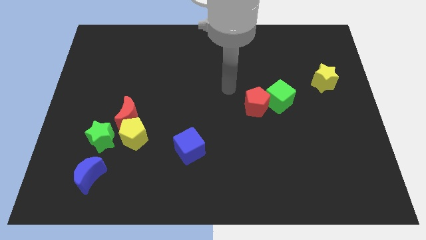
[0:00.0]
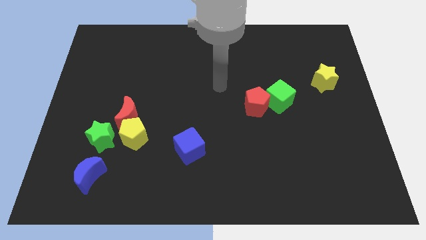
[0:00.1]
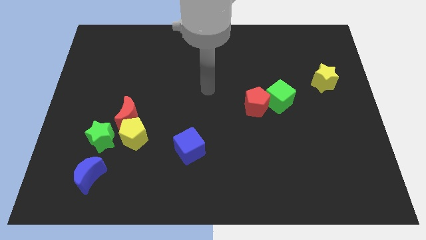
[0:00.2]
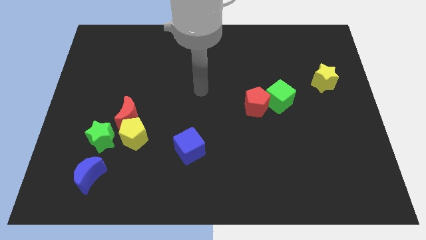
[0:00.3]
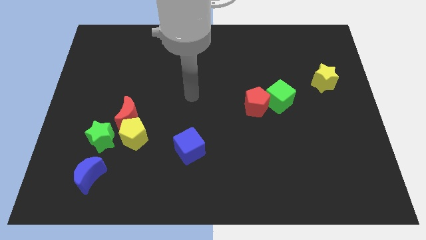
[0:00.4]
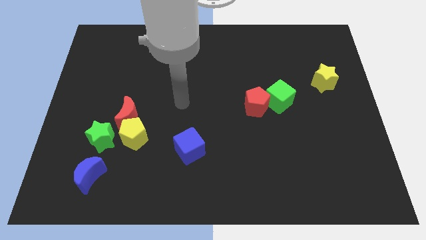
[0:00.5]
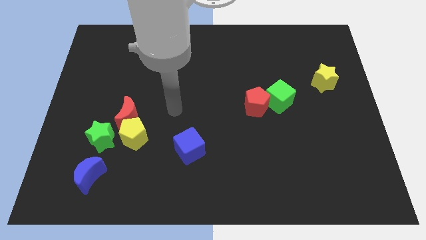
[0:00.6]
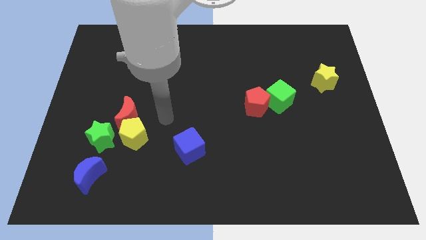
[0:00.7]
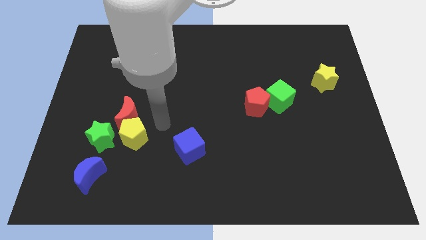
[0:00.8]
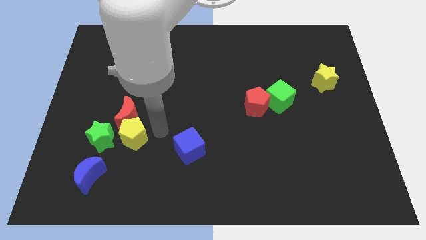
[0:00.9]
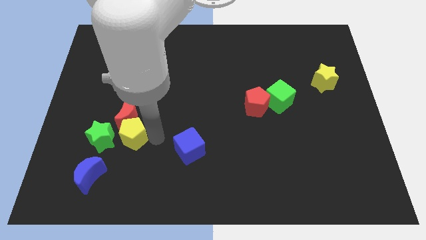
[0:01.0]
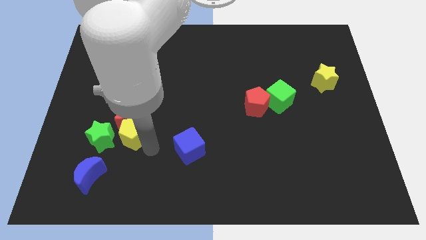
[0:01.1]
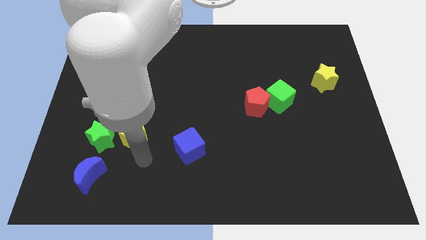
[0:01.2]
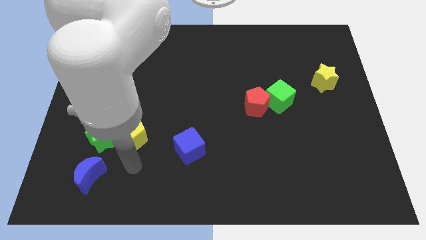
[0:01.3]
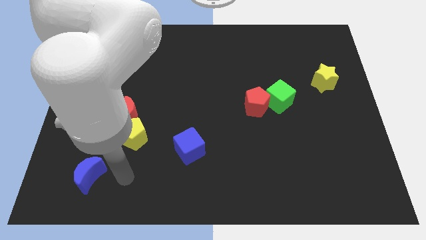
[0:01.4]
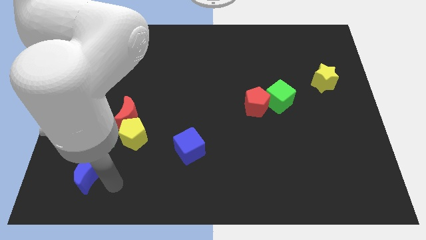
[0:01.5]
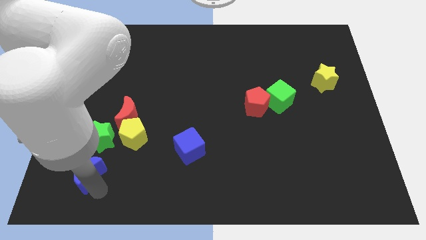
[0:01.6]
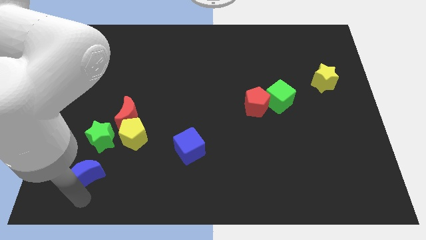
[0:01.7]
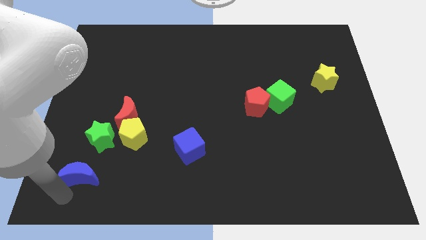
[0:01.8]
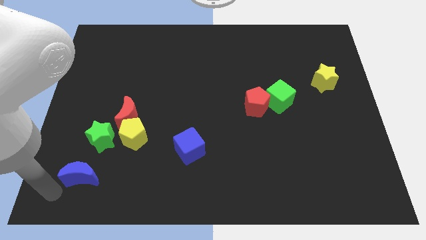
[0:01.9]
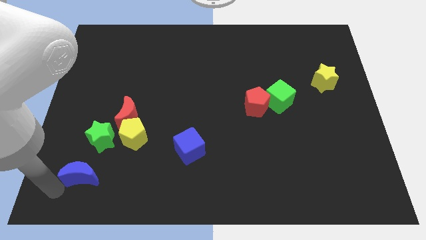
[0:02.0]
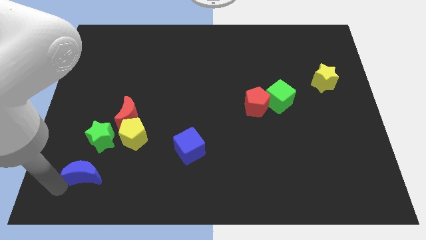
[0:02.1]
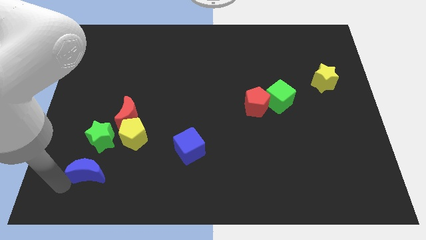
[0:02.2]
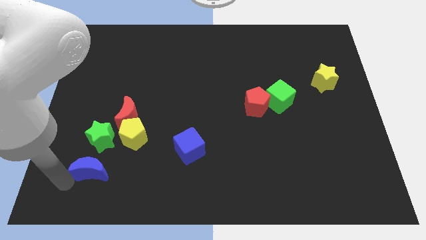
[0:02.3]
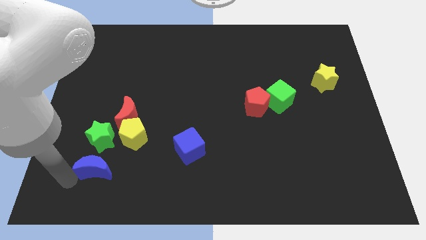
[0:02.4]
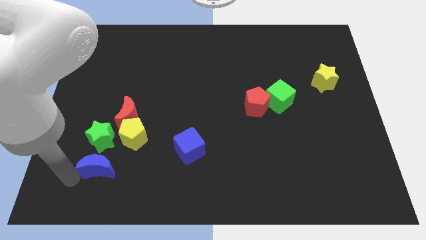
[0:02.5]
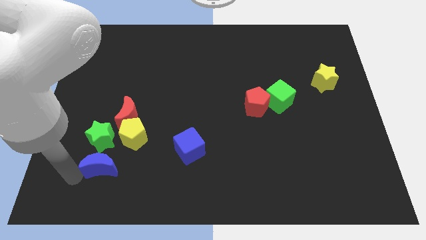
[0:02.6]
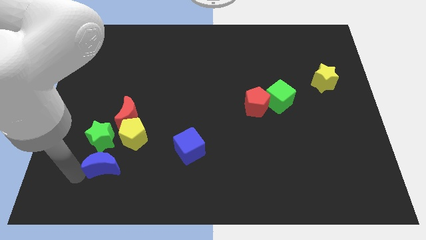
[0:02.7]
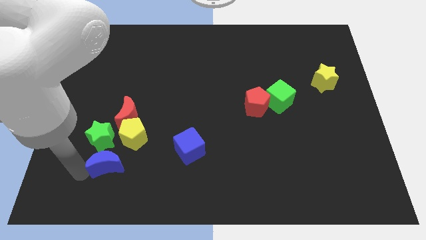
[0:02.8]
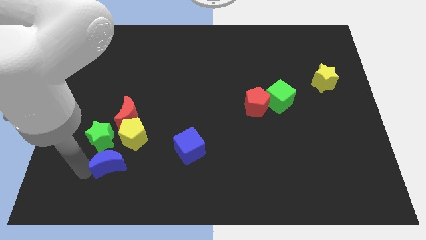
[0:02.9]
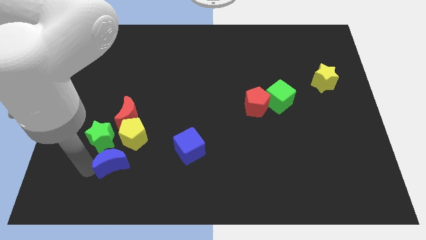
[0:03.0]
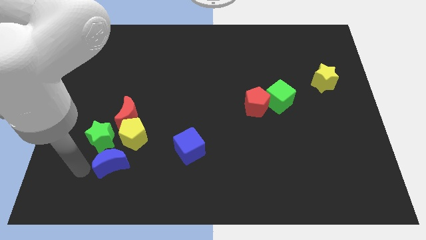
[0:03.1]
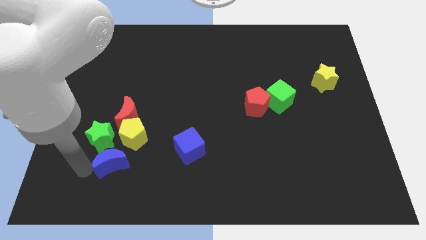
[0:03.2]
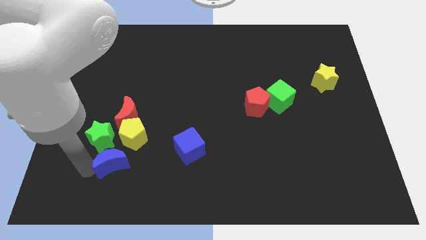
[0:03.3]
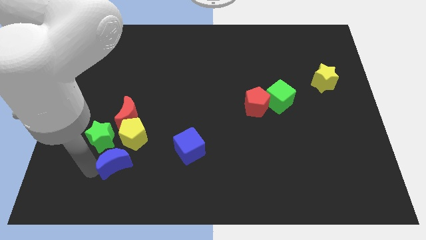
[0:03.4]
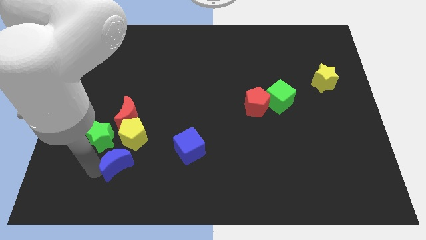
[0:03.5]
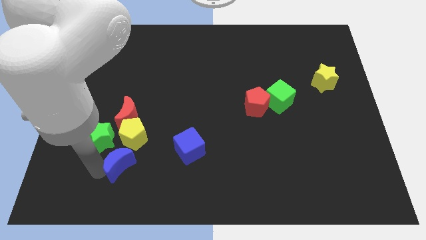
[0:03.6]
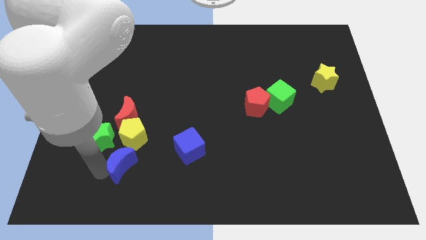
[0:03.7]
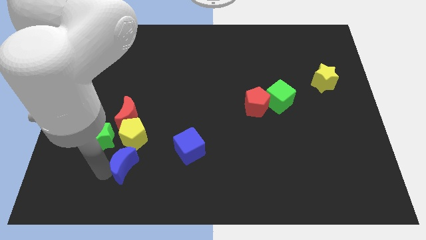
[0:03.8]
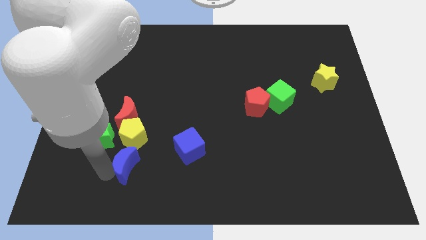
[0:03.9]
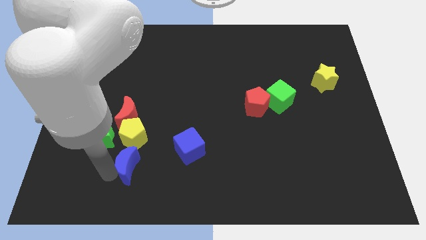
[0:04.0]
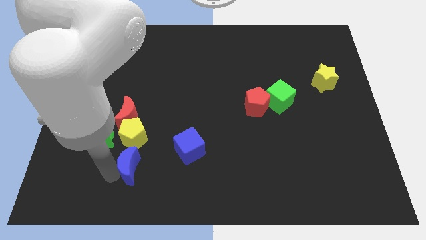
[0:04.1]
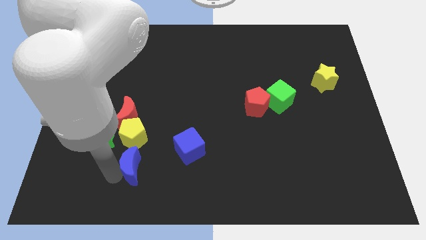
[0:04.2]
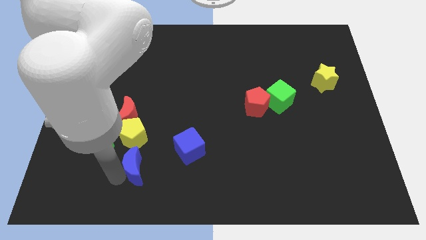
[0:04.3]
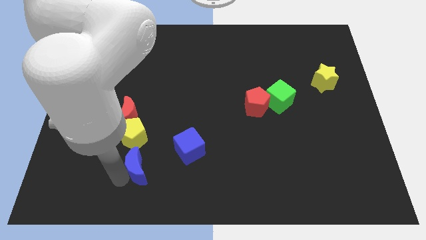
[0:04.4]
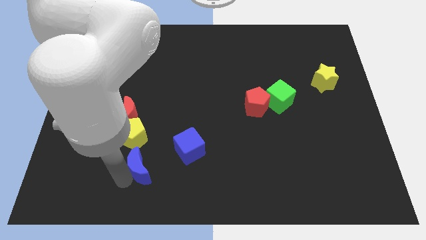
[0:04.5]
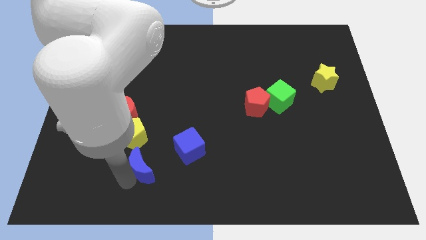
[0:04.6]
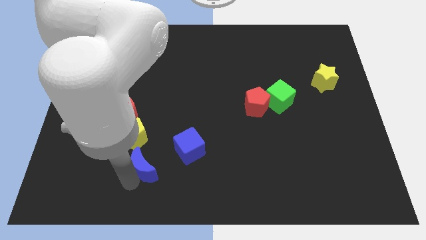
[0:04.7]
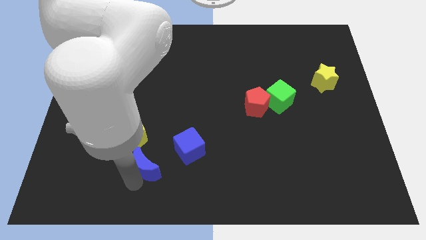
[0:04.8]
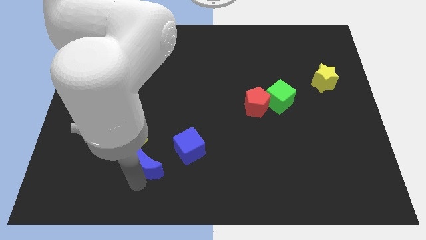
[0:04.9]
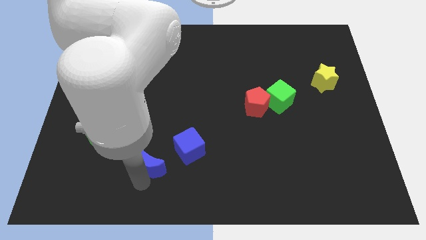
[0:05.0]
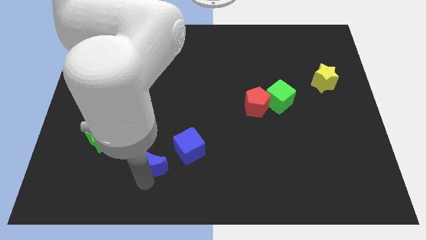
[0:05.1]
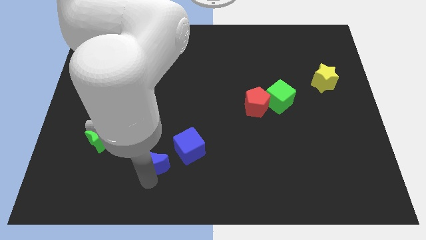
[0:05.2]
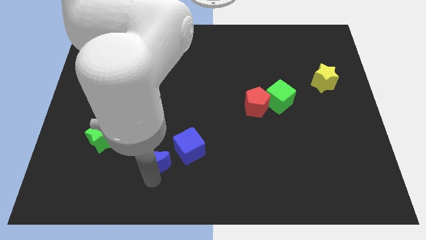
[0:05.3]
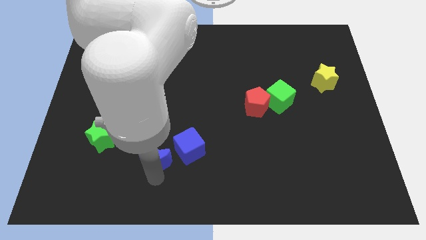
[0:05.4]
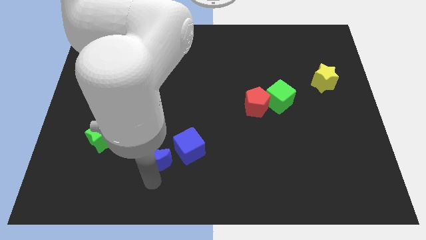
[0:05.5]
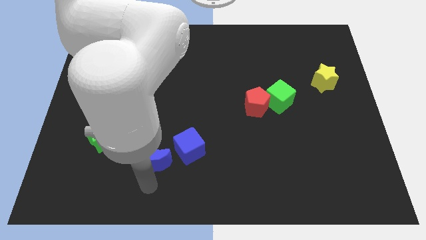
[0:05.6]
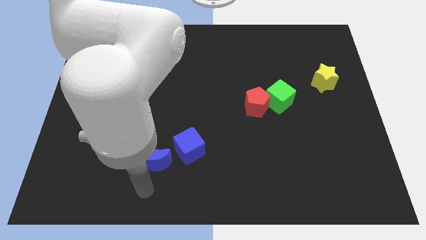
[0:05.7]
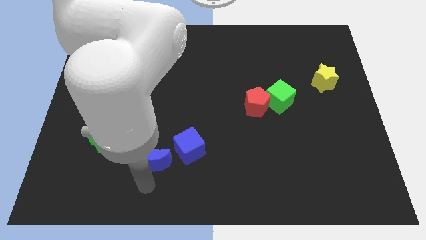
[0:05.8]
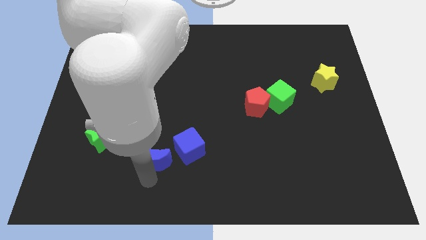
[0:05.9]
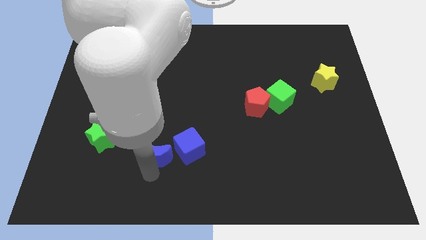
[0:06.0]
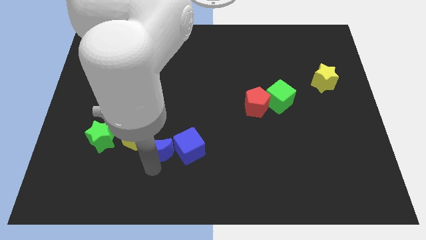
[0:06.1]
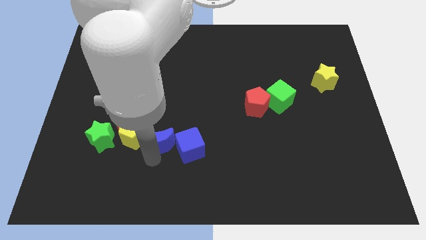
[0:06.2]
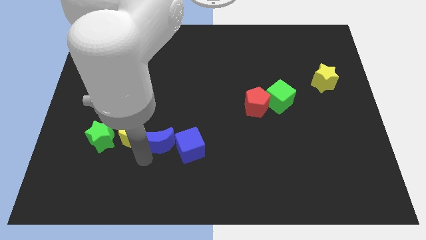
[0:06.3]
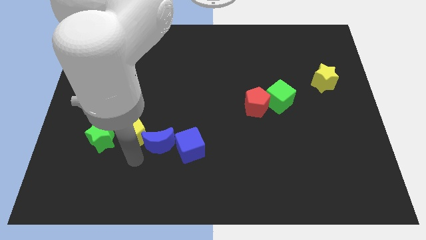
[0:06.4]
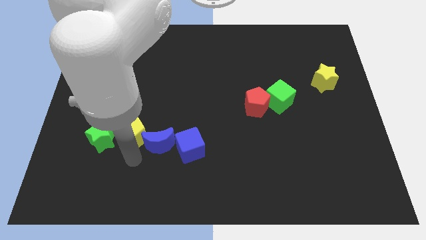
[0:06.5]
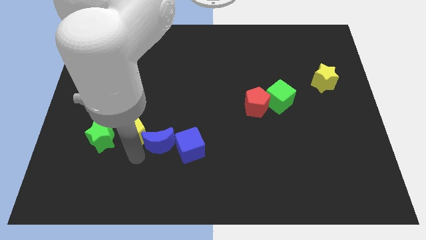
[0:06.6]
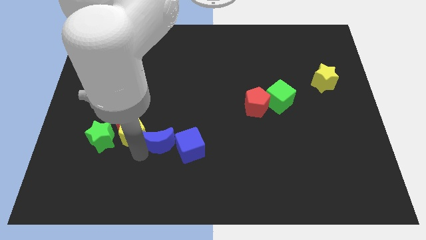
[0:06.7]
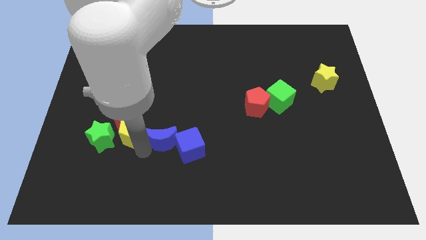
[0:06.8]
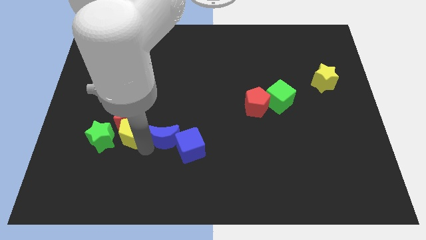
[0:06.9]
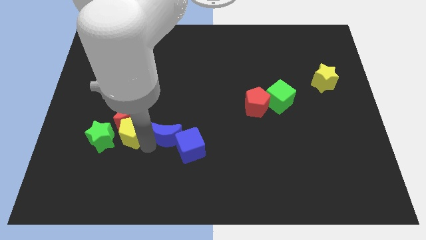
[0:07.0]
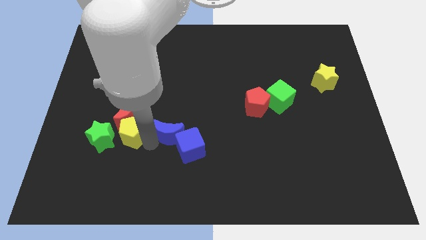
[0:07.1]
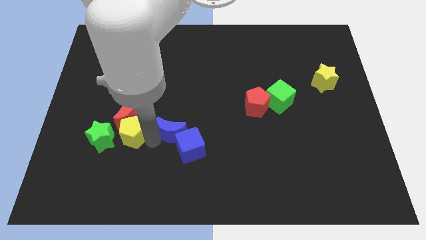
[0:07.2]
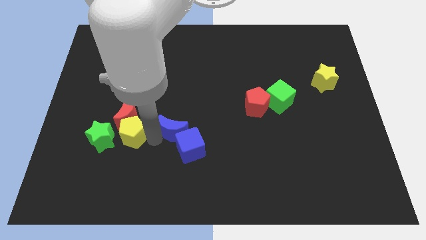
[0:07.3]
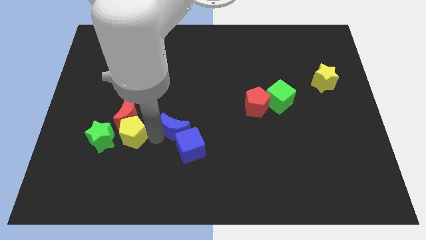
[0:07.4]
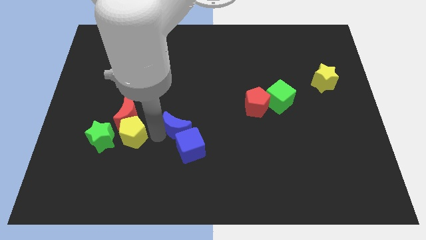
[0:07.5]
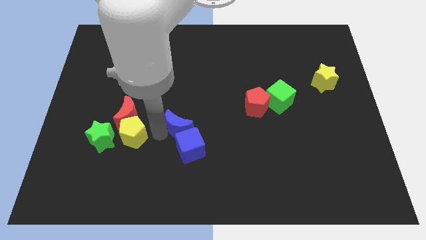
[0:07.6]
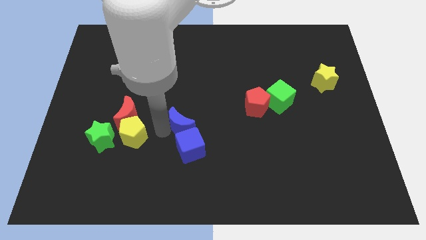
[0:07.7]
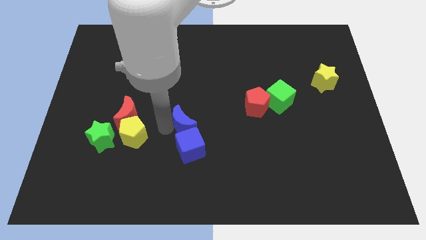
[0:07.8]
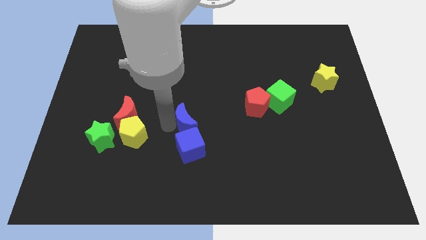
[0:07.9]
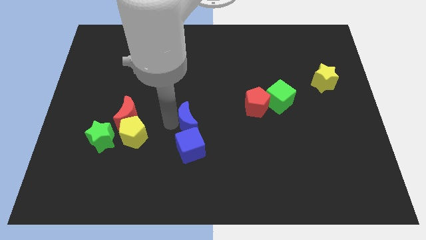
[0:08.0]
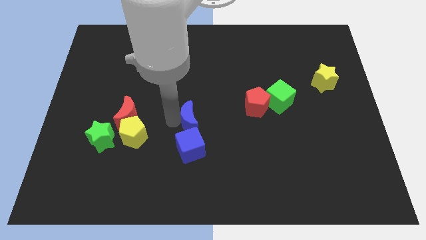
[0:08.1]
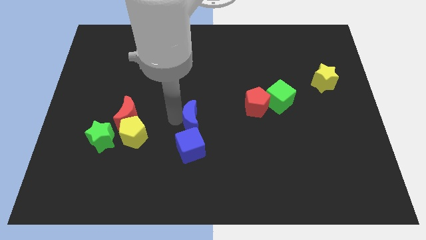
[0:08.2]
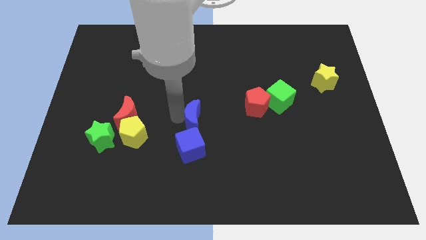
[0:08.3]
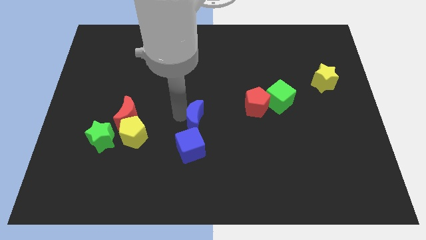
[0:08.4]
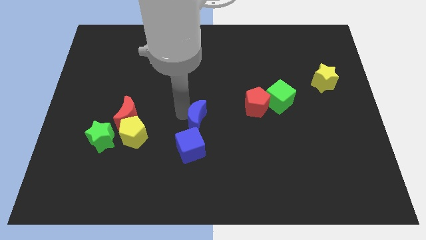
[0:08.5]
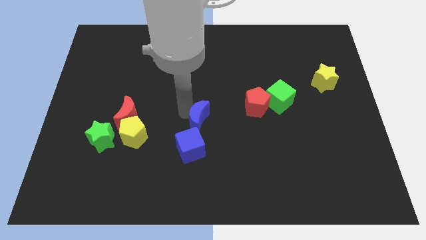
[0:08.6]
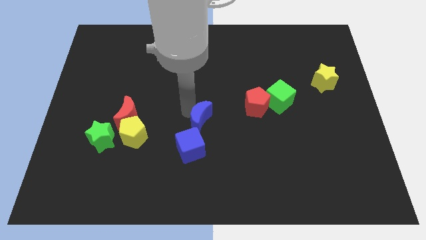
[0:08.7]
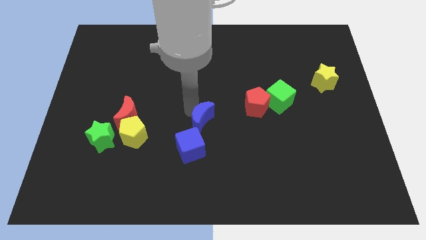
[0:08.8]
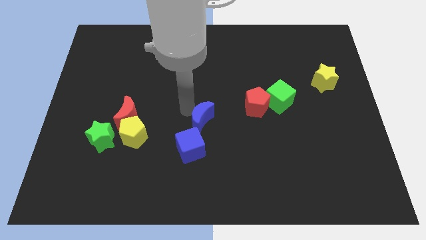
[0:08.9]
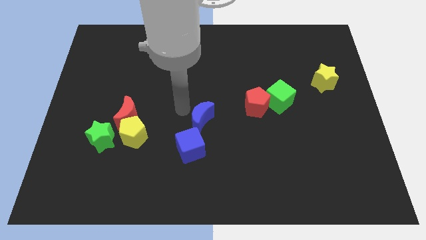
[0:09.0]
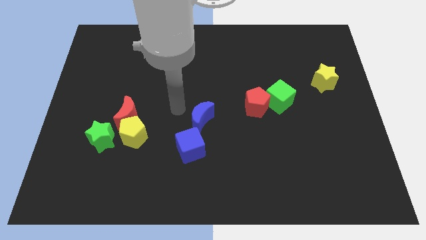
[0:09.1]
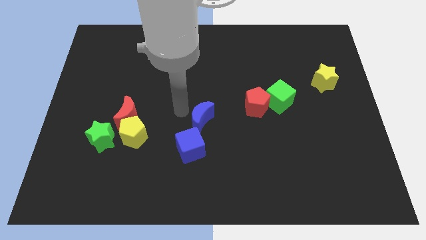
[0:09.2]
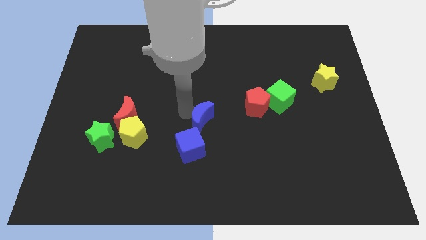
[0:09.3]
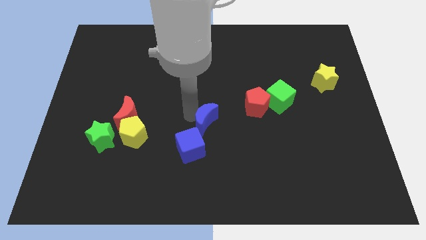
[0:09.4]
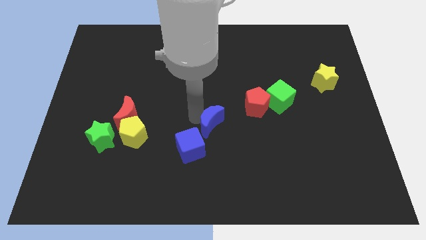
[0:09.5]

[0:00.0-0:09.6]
move the blue moon to the bottom left side of the red pentagon
